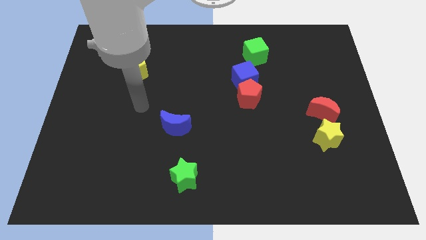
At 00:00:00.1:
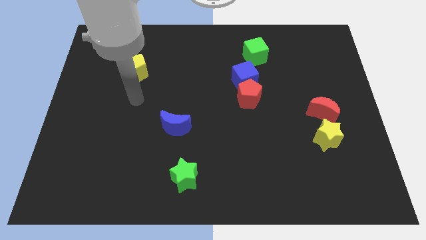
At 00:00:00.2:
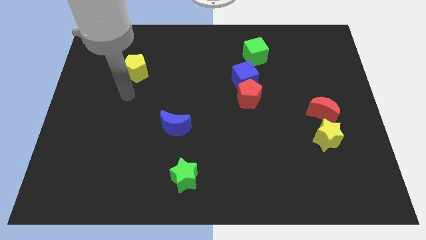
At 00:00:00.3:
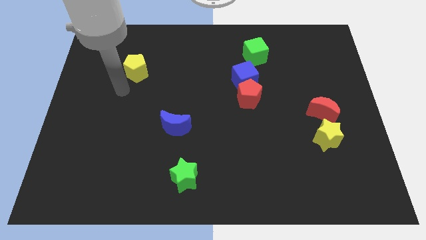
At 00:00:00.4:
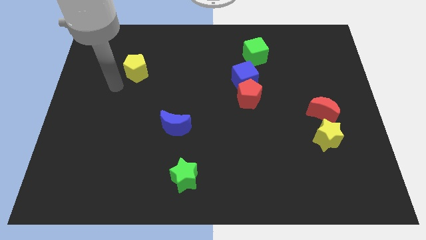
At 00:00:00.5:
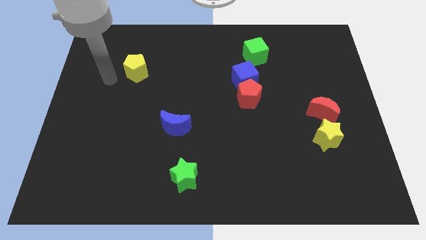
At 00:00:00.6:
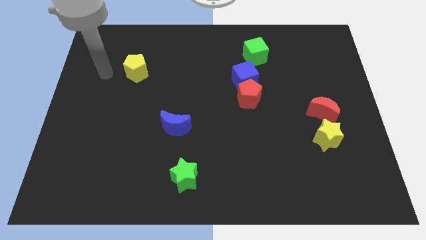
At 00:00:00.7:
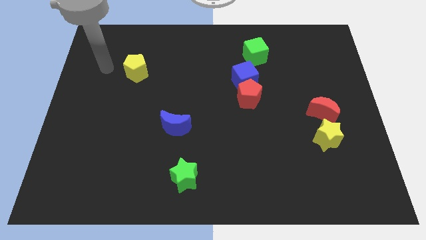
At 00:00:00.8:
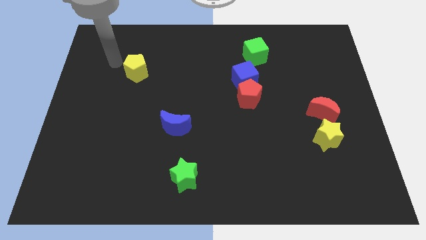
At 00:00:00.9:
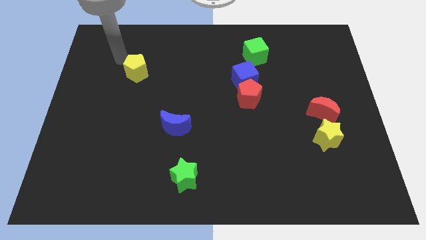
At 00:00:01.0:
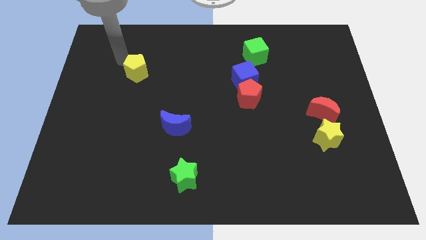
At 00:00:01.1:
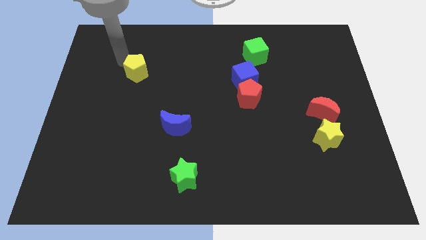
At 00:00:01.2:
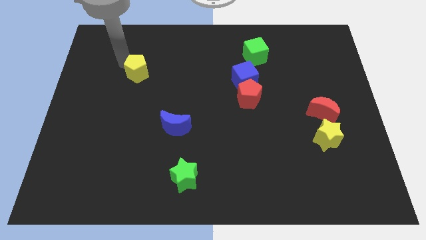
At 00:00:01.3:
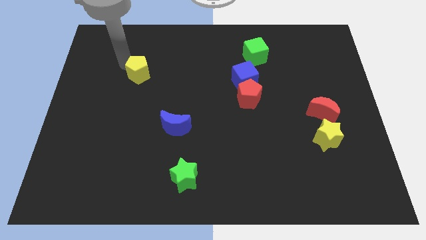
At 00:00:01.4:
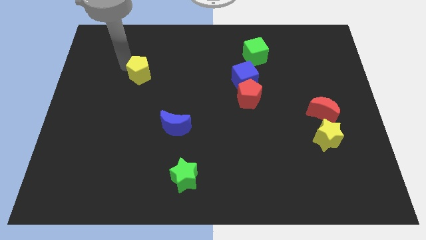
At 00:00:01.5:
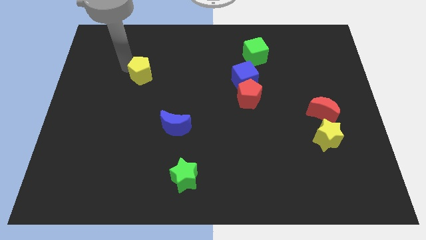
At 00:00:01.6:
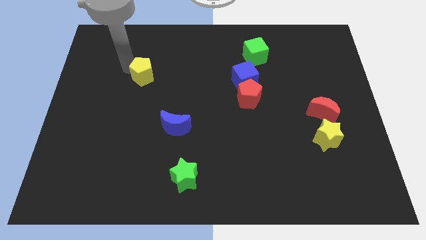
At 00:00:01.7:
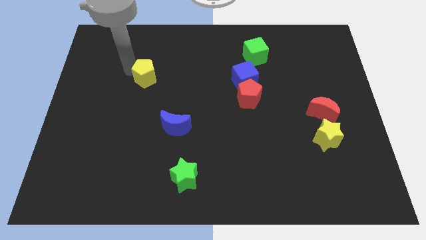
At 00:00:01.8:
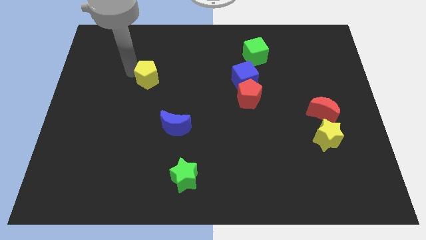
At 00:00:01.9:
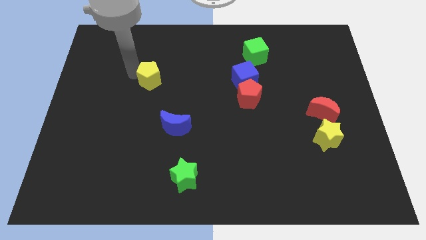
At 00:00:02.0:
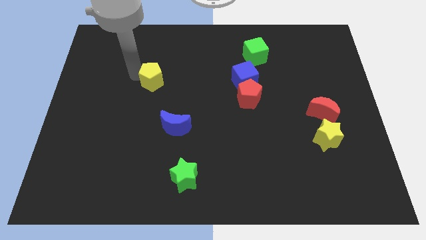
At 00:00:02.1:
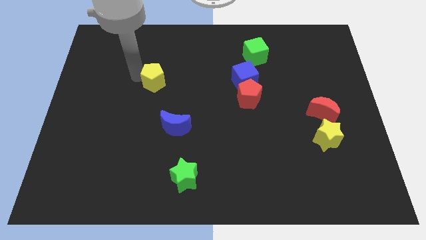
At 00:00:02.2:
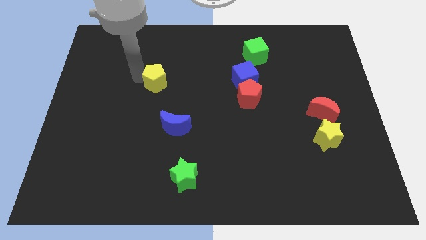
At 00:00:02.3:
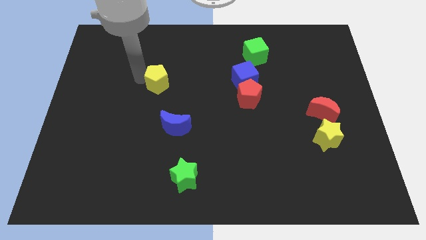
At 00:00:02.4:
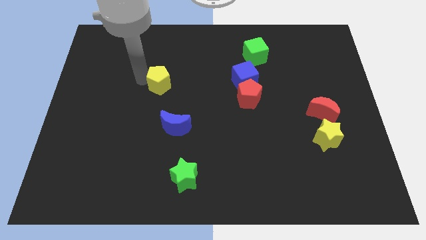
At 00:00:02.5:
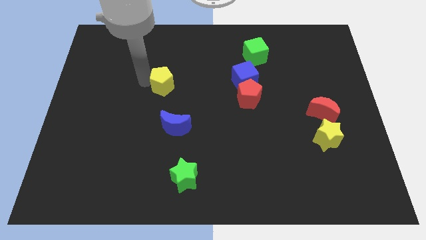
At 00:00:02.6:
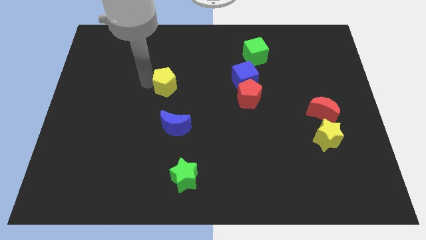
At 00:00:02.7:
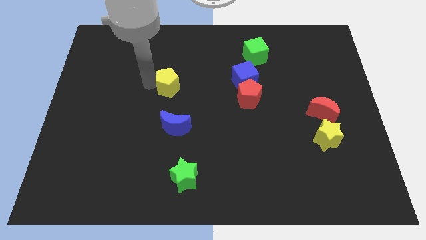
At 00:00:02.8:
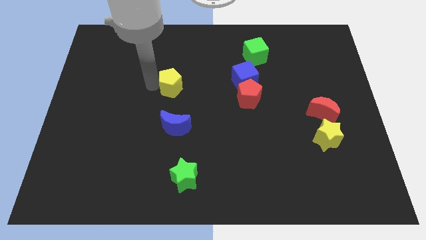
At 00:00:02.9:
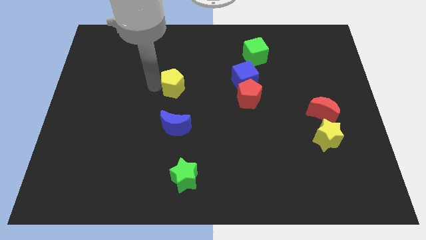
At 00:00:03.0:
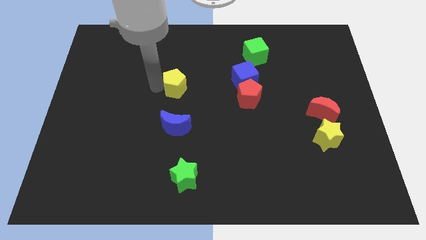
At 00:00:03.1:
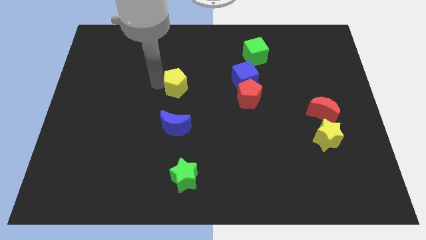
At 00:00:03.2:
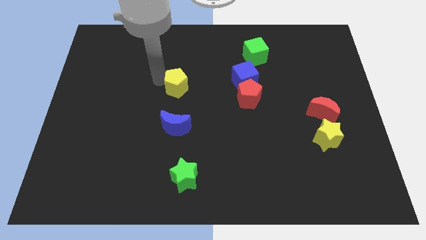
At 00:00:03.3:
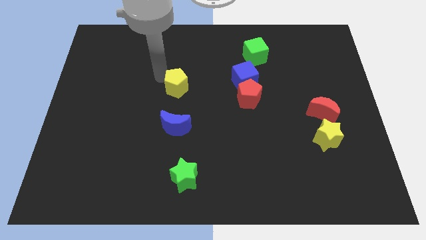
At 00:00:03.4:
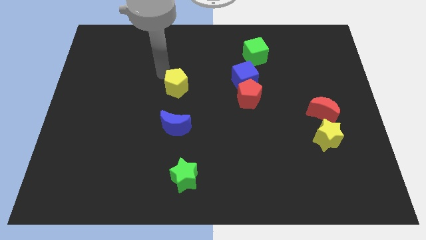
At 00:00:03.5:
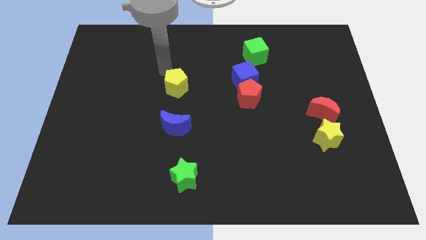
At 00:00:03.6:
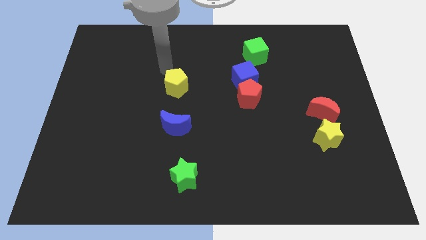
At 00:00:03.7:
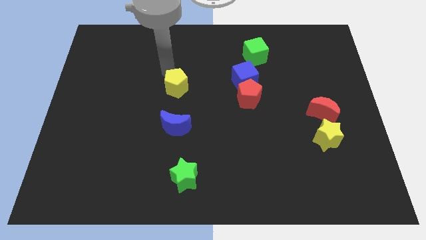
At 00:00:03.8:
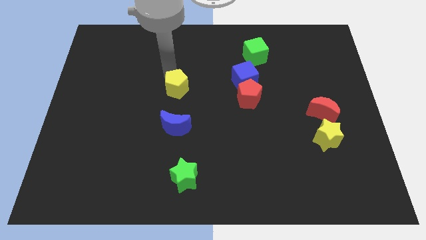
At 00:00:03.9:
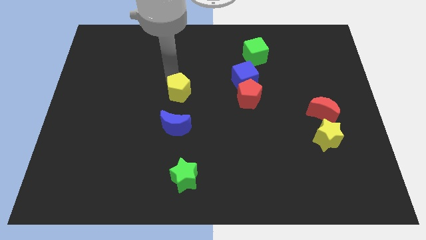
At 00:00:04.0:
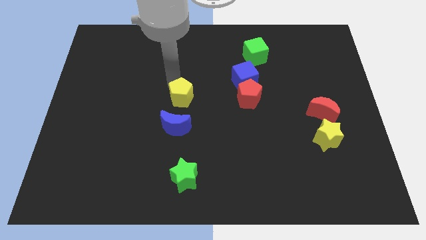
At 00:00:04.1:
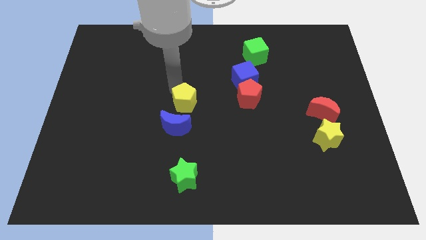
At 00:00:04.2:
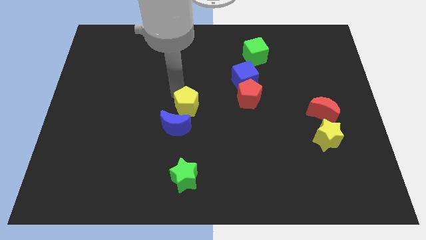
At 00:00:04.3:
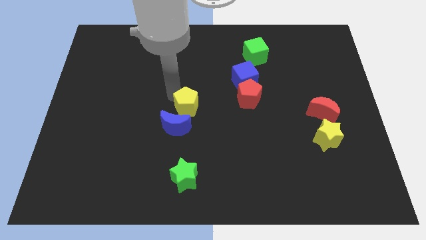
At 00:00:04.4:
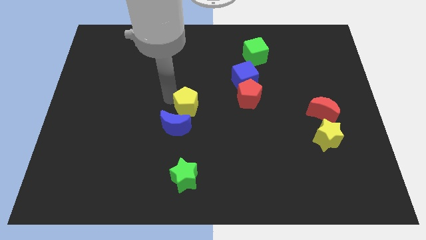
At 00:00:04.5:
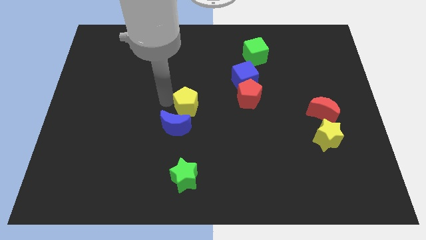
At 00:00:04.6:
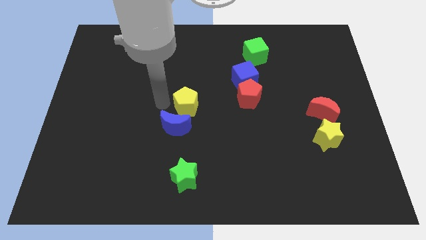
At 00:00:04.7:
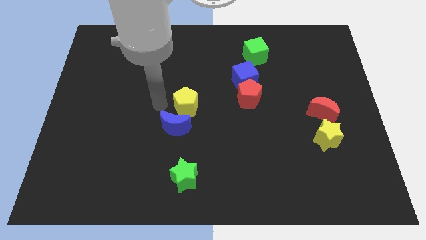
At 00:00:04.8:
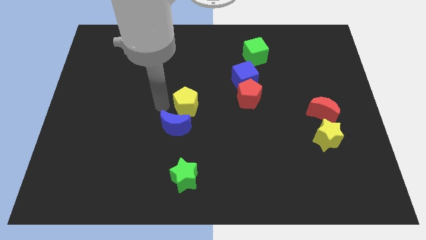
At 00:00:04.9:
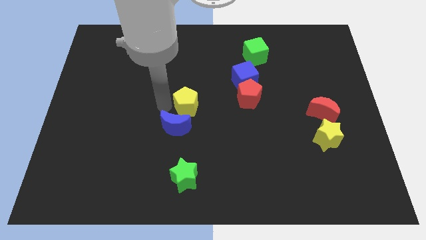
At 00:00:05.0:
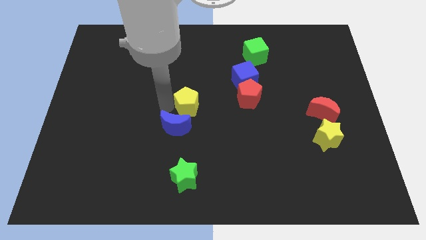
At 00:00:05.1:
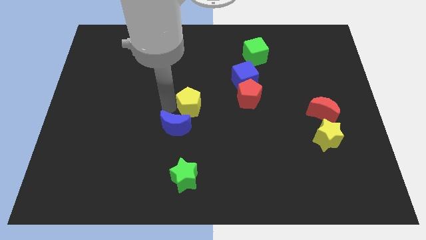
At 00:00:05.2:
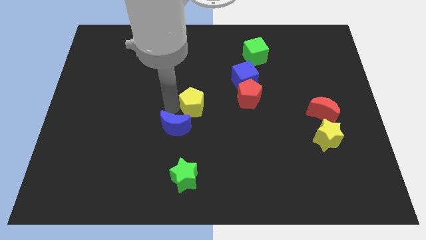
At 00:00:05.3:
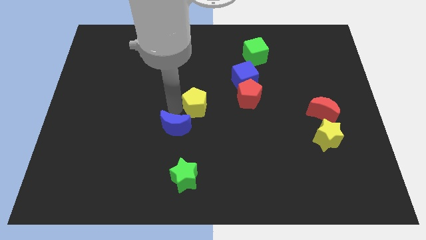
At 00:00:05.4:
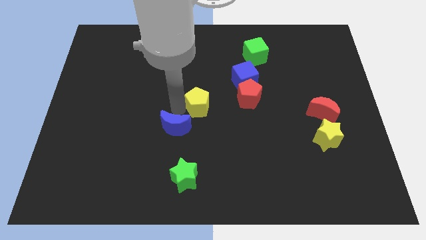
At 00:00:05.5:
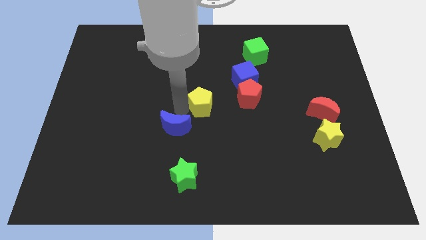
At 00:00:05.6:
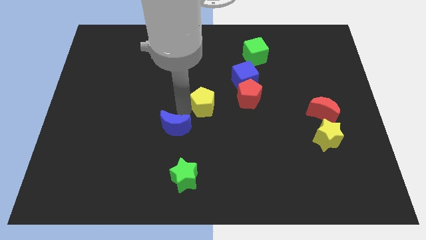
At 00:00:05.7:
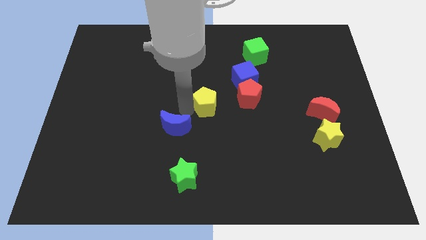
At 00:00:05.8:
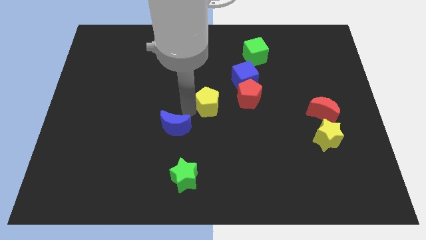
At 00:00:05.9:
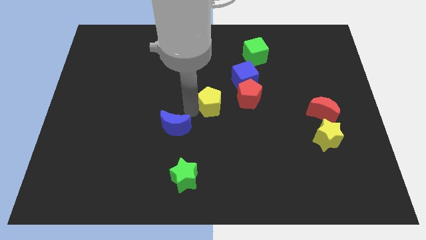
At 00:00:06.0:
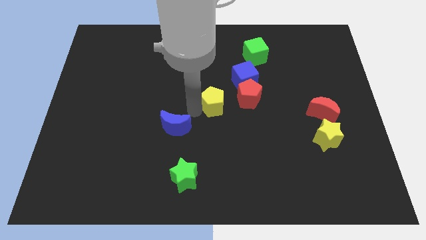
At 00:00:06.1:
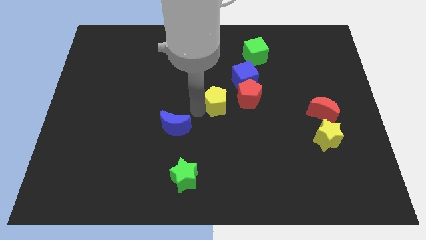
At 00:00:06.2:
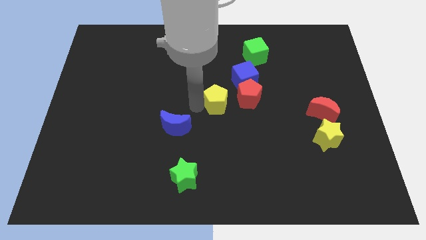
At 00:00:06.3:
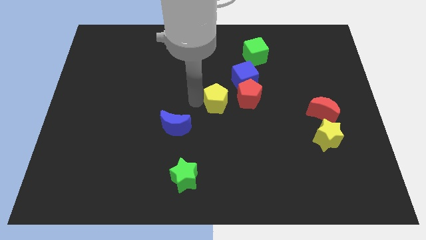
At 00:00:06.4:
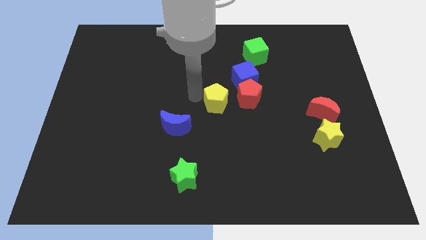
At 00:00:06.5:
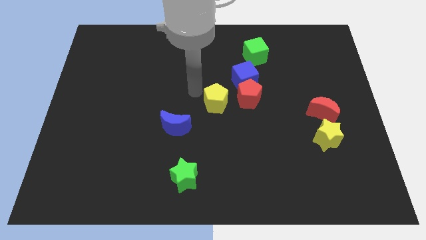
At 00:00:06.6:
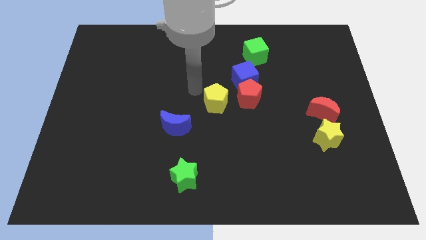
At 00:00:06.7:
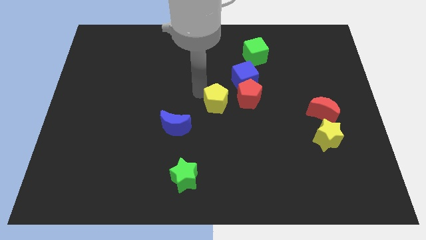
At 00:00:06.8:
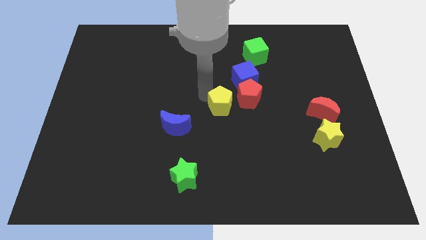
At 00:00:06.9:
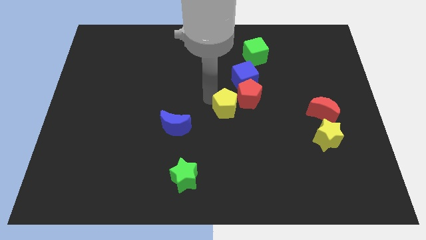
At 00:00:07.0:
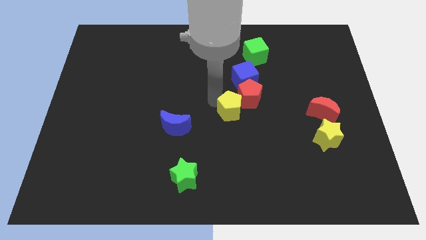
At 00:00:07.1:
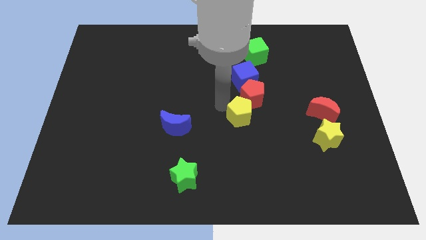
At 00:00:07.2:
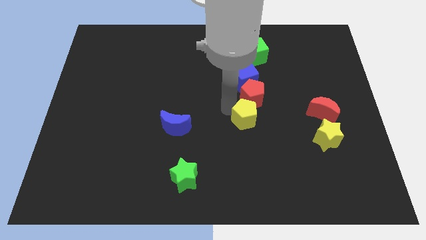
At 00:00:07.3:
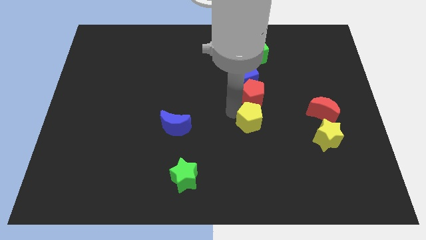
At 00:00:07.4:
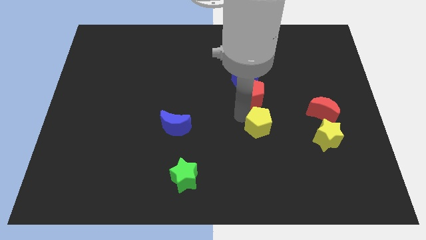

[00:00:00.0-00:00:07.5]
move the yellow pentagon just left of the yellow star
